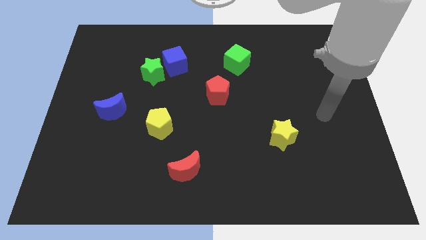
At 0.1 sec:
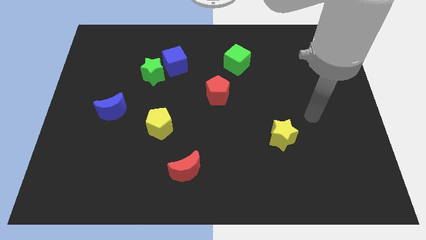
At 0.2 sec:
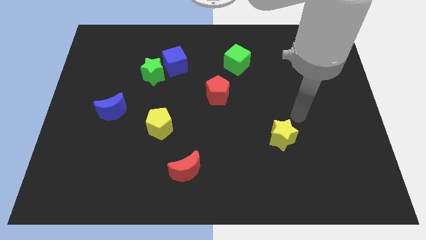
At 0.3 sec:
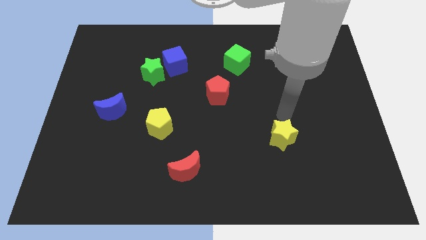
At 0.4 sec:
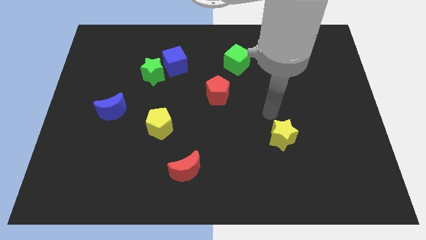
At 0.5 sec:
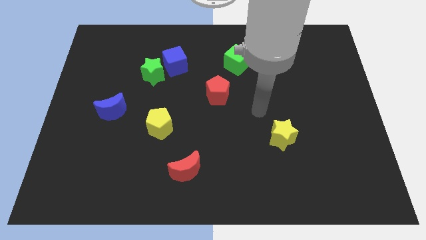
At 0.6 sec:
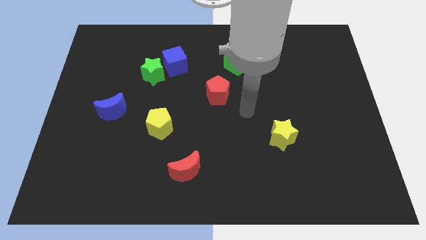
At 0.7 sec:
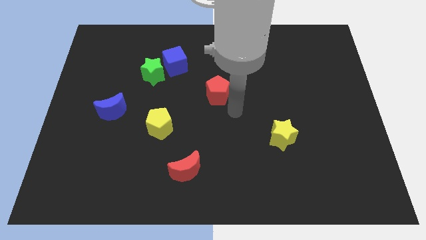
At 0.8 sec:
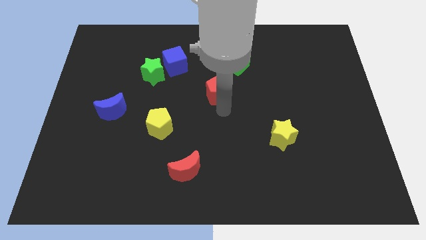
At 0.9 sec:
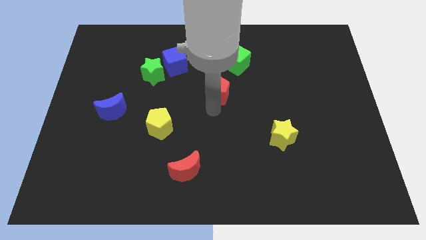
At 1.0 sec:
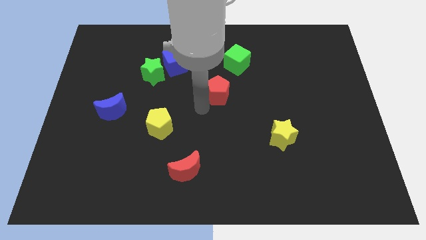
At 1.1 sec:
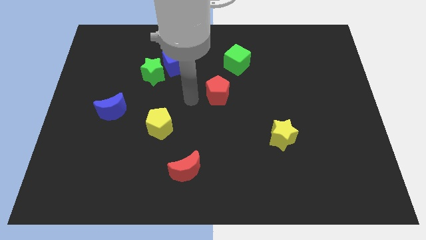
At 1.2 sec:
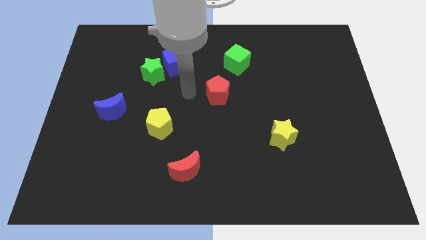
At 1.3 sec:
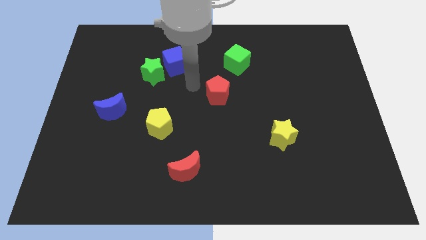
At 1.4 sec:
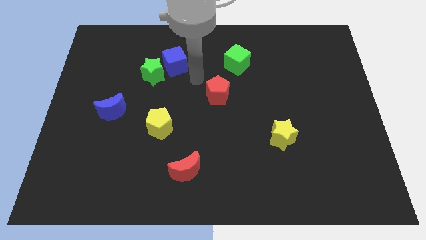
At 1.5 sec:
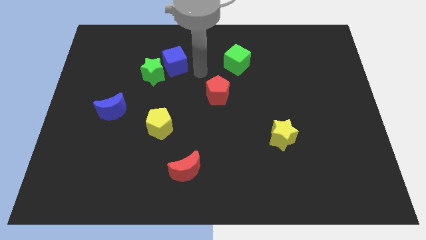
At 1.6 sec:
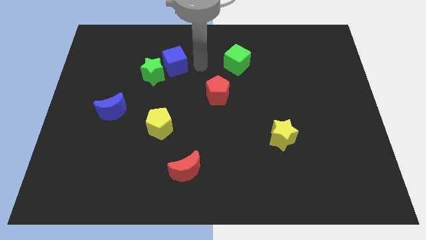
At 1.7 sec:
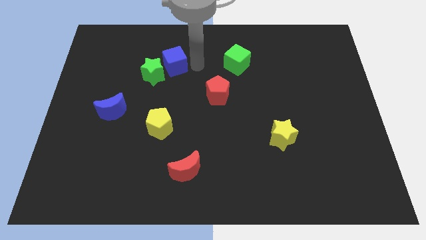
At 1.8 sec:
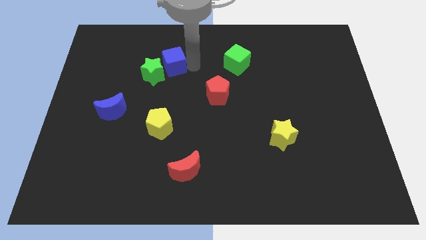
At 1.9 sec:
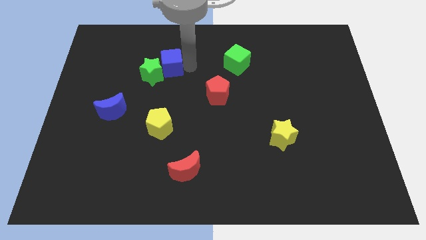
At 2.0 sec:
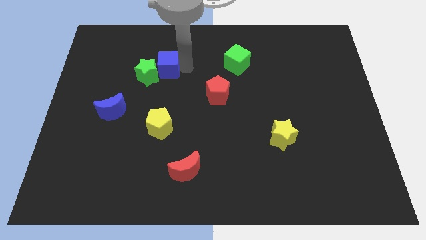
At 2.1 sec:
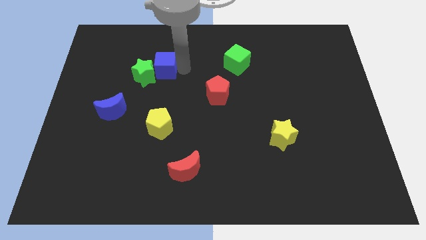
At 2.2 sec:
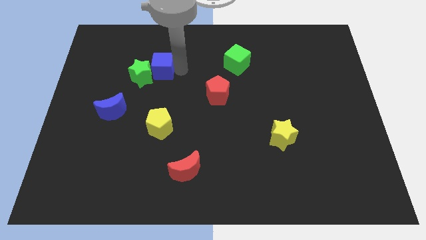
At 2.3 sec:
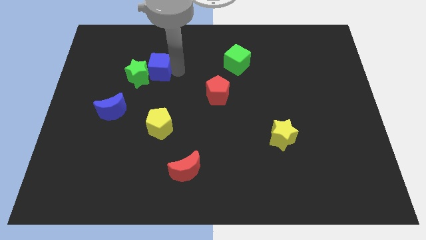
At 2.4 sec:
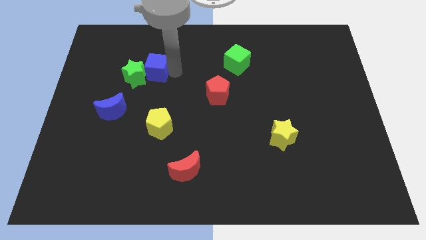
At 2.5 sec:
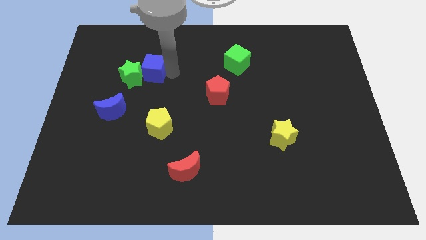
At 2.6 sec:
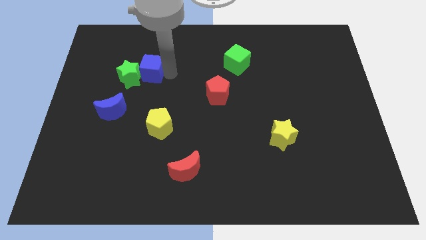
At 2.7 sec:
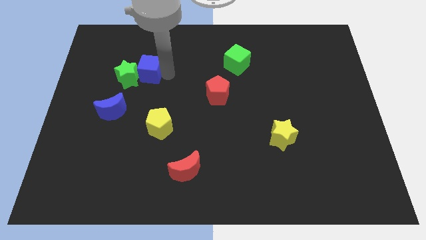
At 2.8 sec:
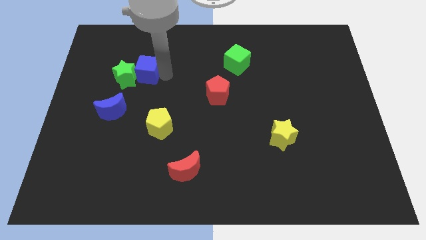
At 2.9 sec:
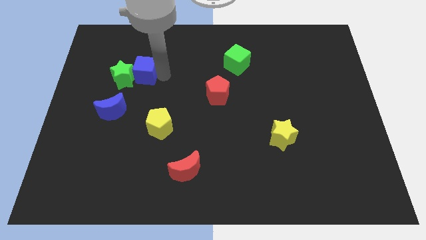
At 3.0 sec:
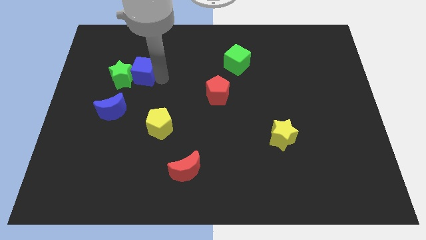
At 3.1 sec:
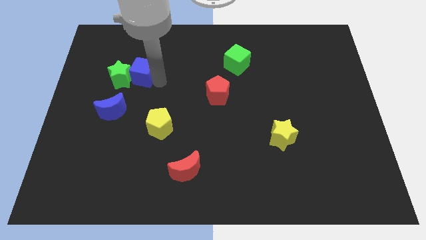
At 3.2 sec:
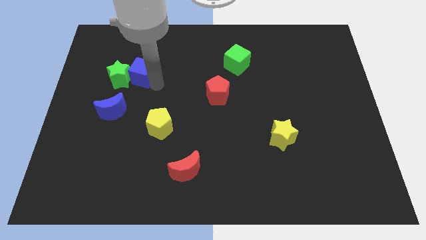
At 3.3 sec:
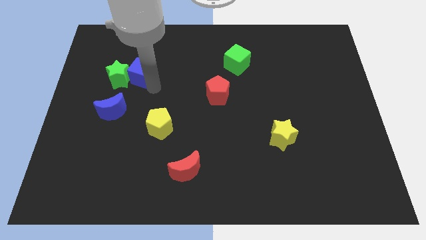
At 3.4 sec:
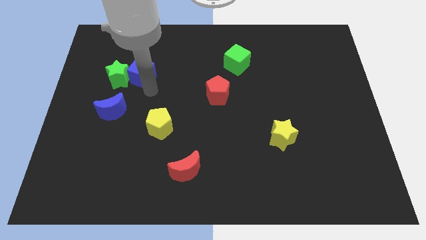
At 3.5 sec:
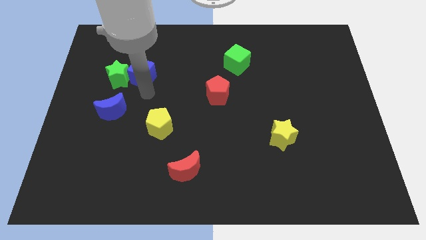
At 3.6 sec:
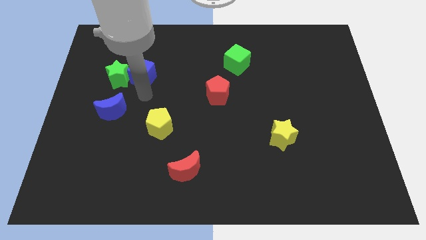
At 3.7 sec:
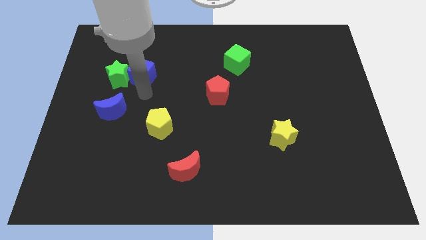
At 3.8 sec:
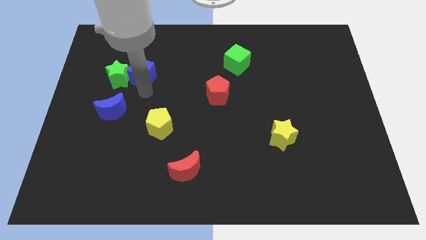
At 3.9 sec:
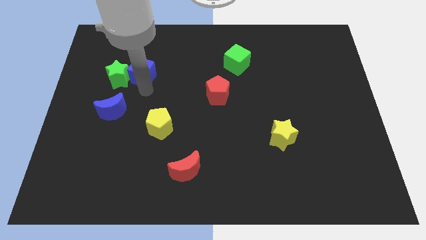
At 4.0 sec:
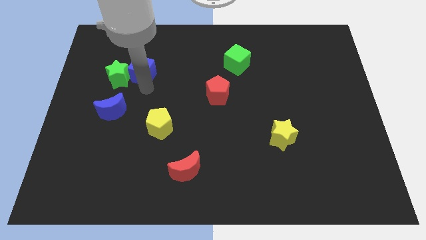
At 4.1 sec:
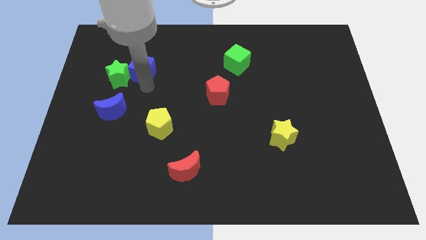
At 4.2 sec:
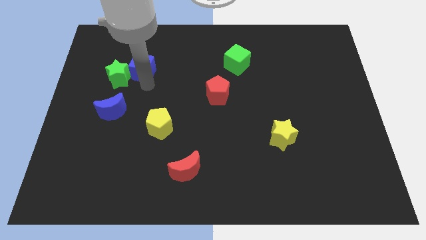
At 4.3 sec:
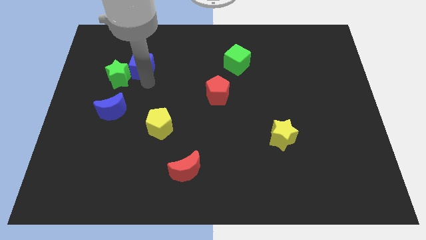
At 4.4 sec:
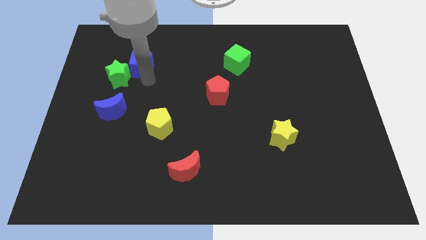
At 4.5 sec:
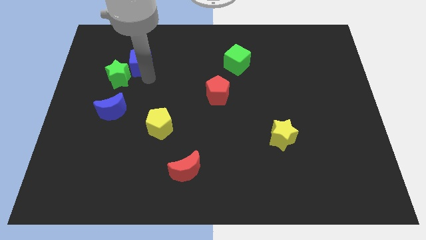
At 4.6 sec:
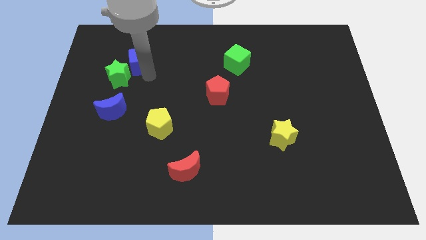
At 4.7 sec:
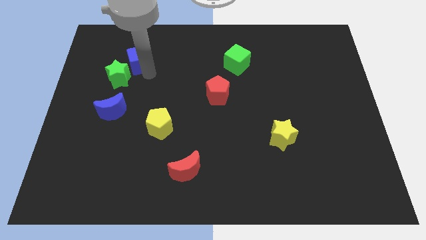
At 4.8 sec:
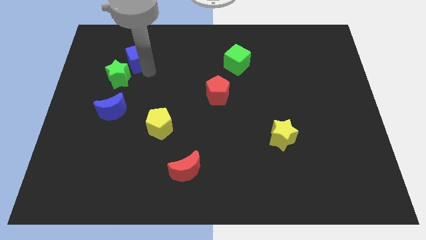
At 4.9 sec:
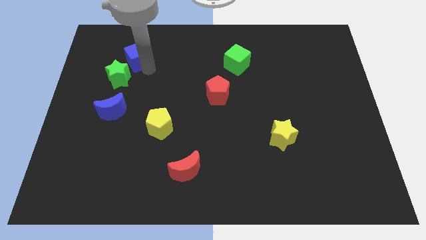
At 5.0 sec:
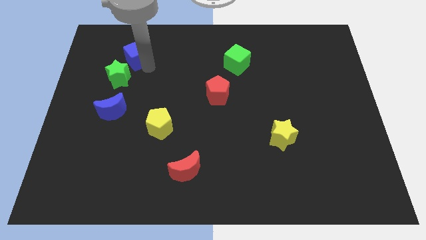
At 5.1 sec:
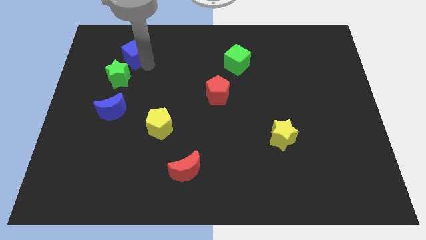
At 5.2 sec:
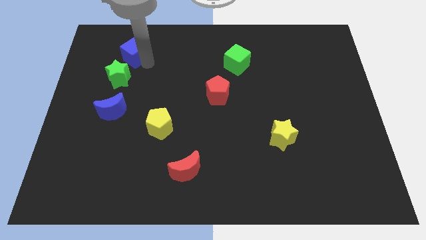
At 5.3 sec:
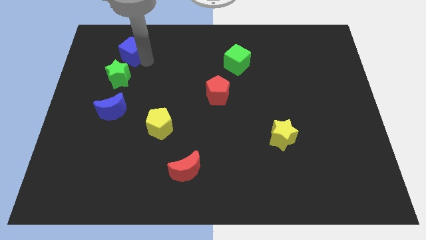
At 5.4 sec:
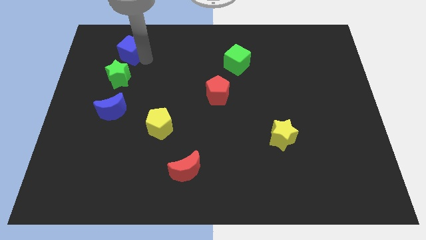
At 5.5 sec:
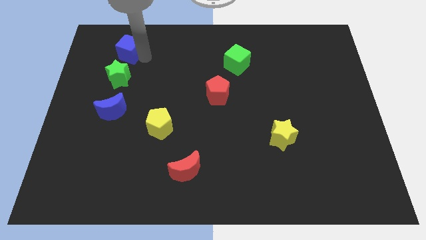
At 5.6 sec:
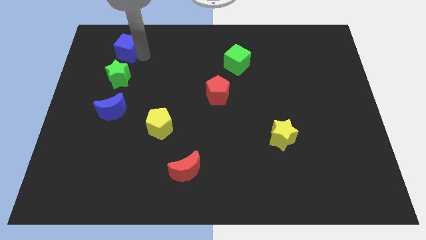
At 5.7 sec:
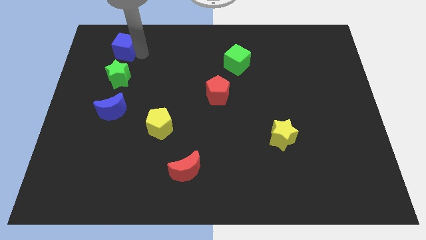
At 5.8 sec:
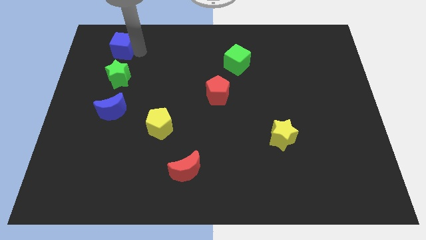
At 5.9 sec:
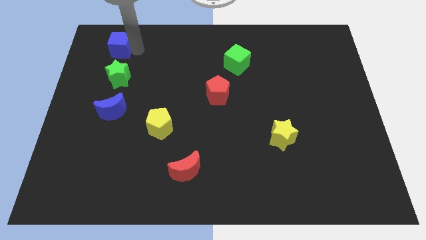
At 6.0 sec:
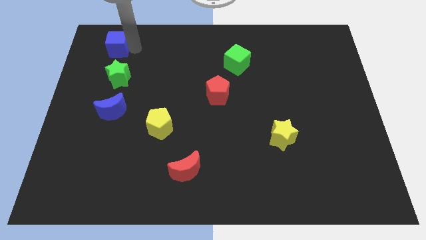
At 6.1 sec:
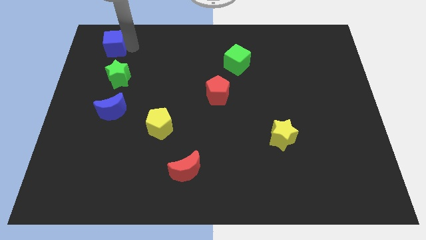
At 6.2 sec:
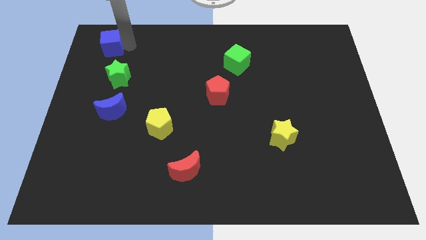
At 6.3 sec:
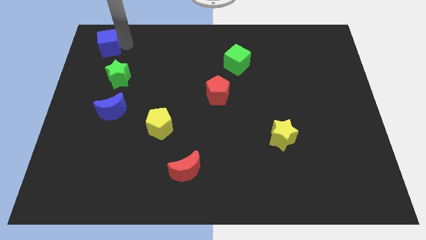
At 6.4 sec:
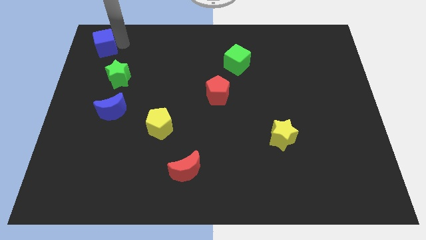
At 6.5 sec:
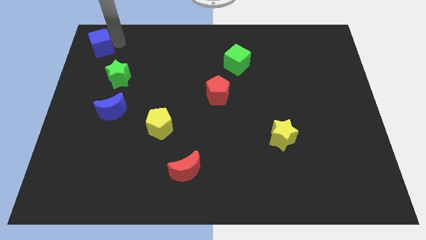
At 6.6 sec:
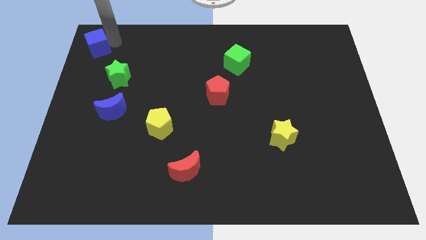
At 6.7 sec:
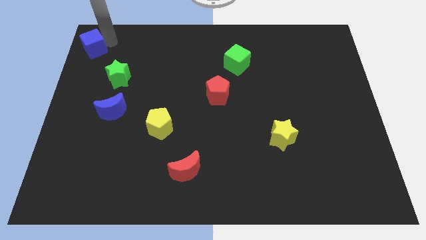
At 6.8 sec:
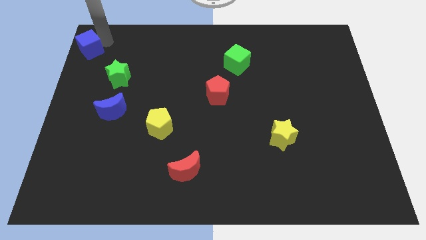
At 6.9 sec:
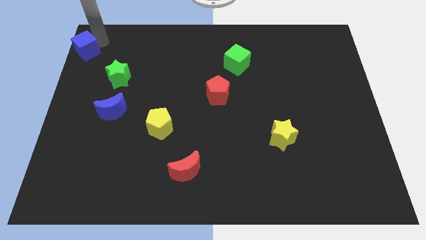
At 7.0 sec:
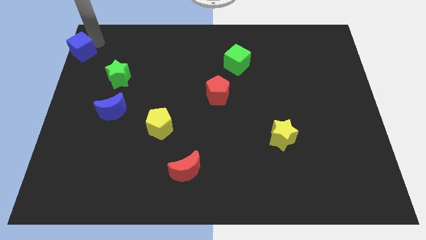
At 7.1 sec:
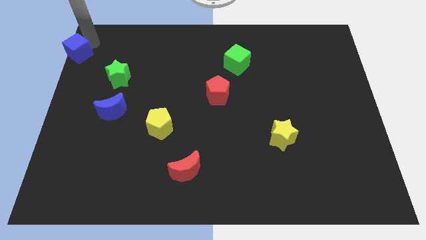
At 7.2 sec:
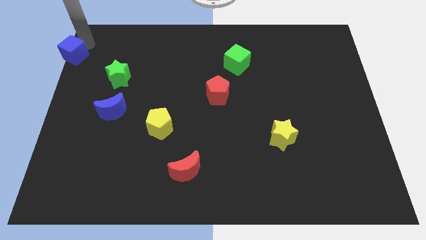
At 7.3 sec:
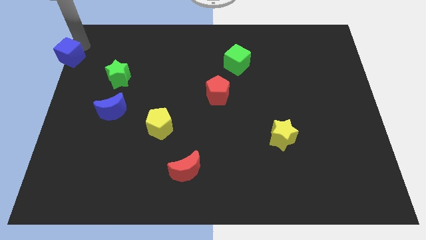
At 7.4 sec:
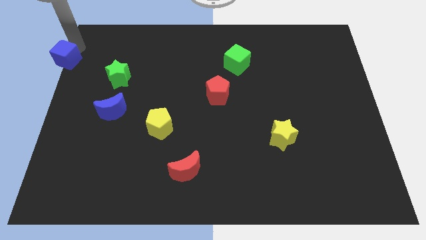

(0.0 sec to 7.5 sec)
put the blue cube to the center left
